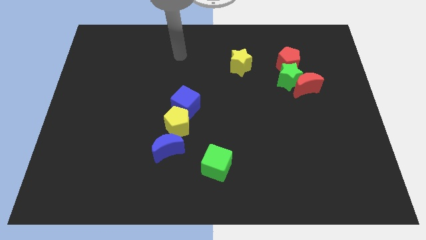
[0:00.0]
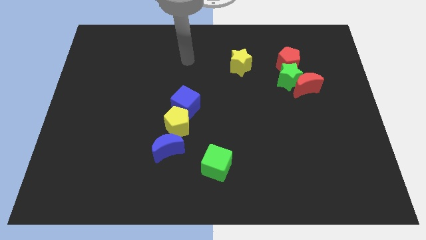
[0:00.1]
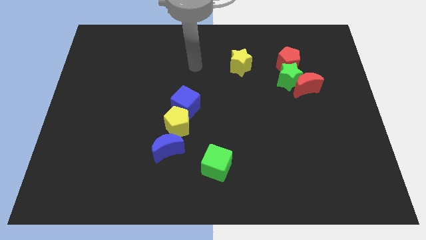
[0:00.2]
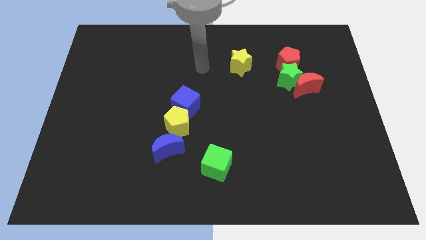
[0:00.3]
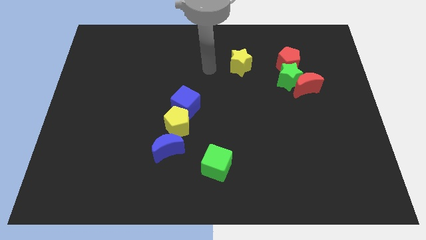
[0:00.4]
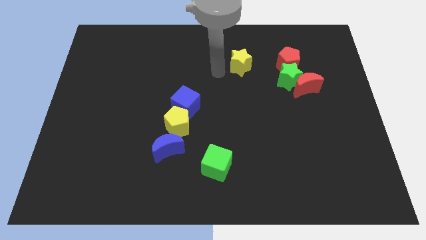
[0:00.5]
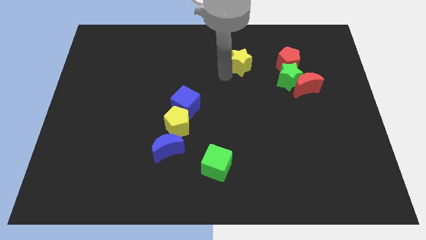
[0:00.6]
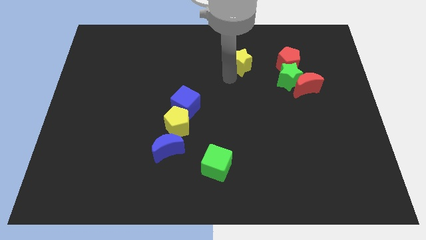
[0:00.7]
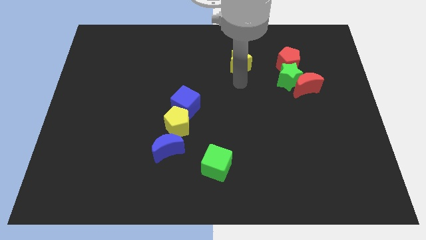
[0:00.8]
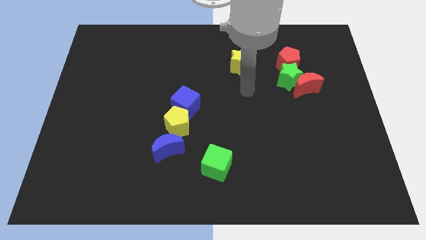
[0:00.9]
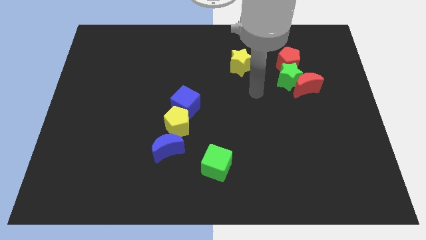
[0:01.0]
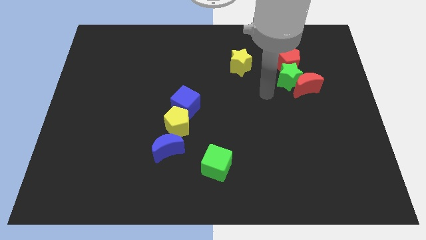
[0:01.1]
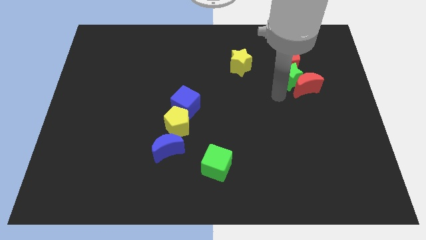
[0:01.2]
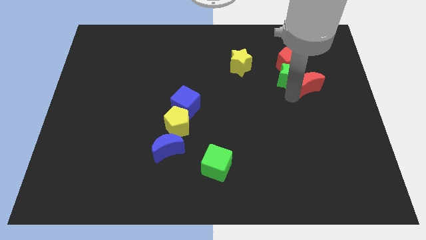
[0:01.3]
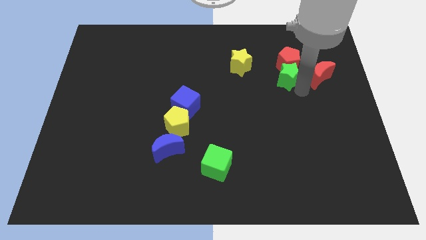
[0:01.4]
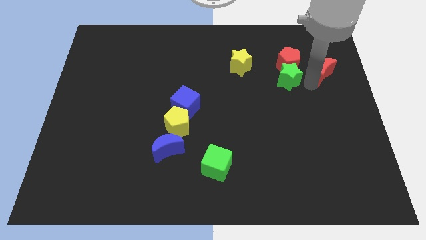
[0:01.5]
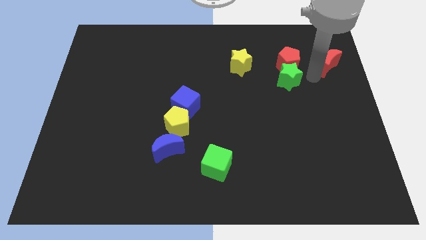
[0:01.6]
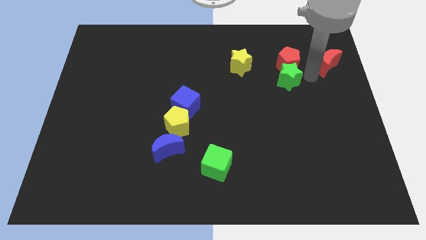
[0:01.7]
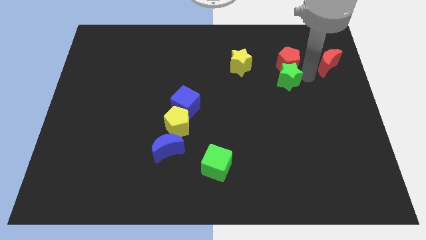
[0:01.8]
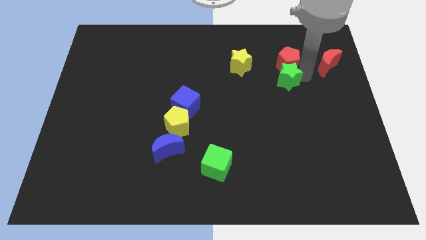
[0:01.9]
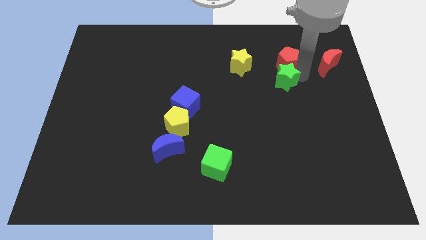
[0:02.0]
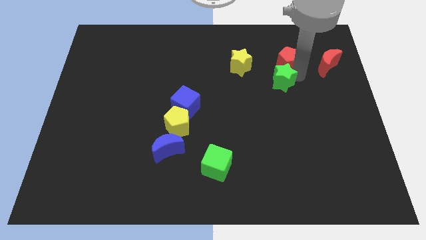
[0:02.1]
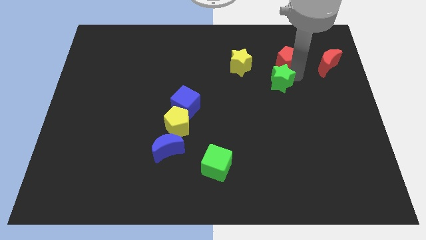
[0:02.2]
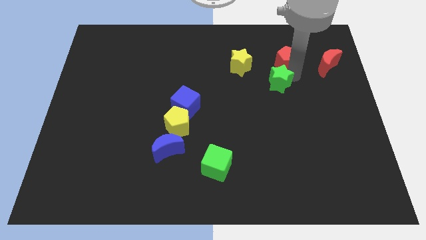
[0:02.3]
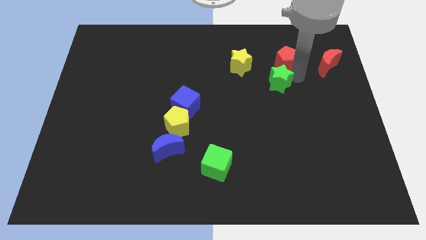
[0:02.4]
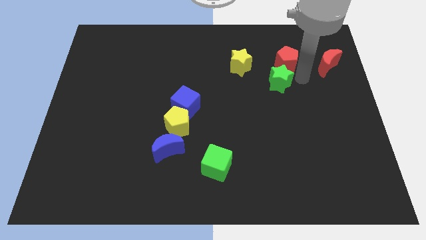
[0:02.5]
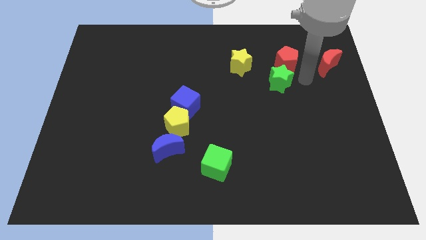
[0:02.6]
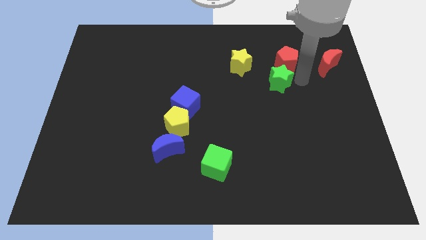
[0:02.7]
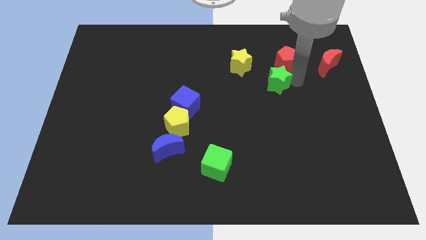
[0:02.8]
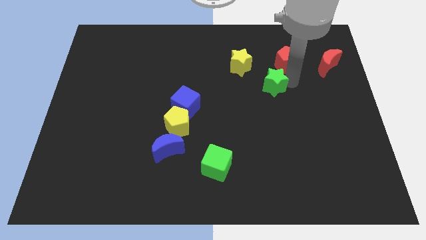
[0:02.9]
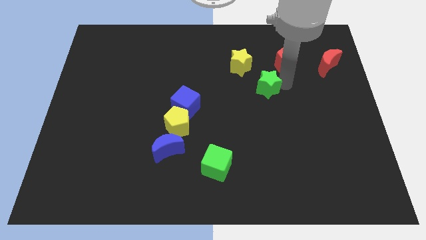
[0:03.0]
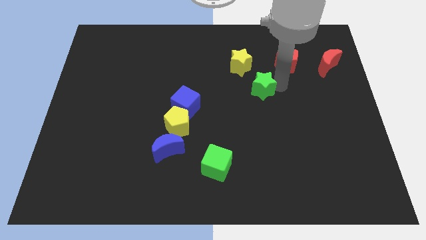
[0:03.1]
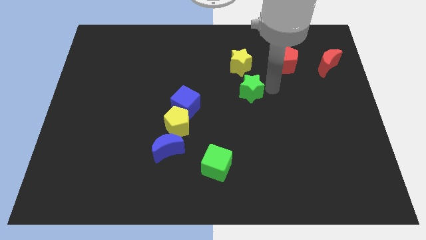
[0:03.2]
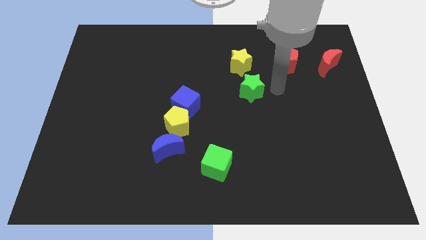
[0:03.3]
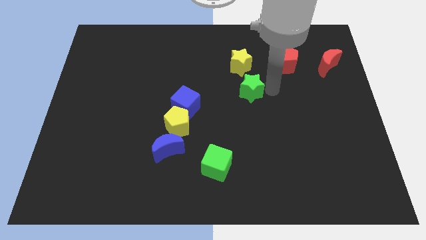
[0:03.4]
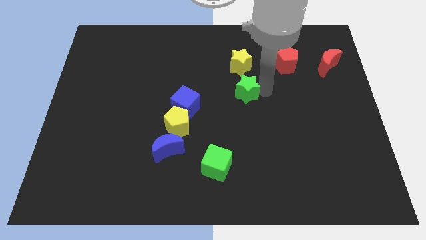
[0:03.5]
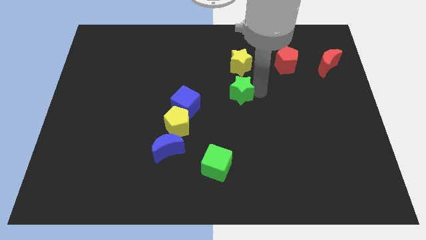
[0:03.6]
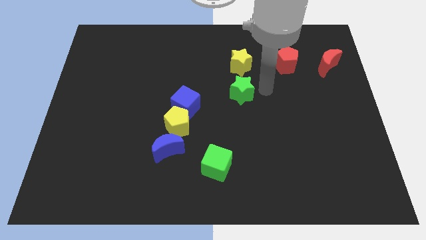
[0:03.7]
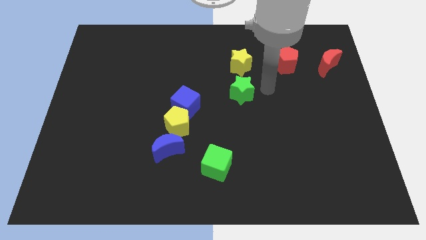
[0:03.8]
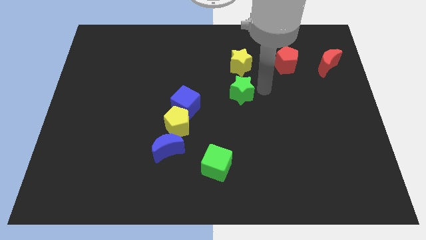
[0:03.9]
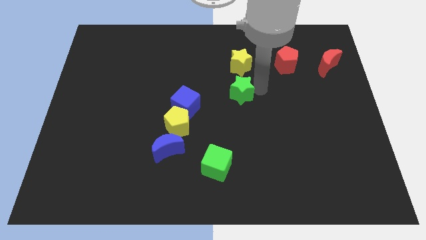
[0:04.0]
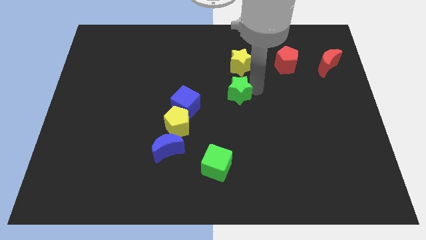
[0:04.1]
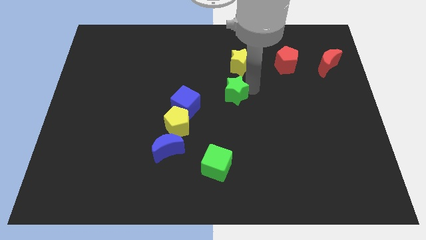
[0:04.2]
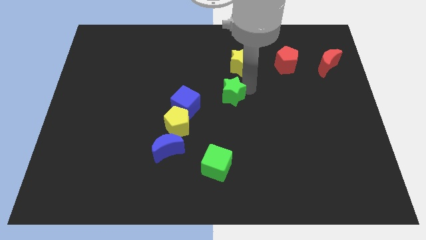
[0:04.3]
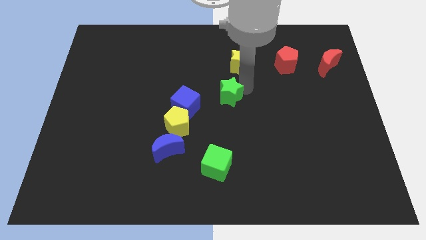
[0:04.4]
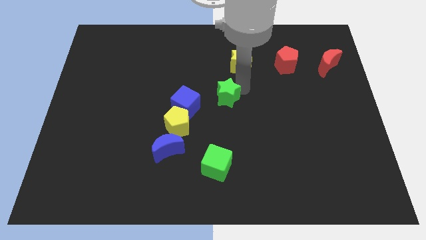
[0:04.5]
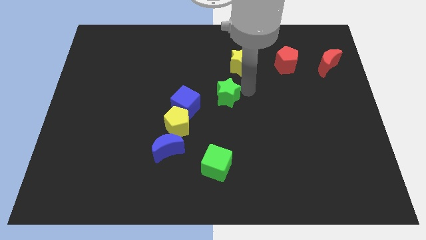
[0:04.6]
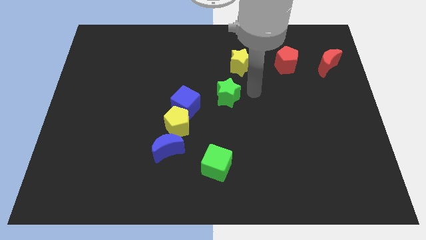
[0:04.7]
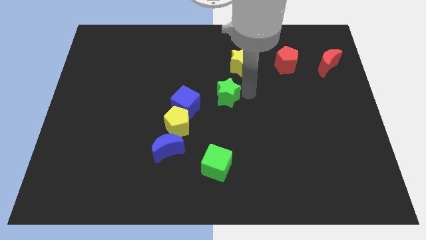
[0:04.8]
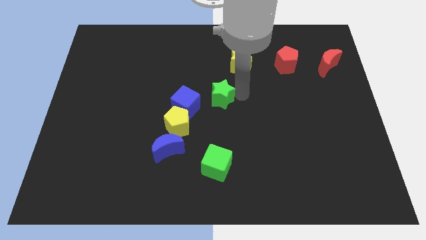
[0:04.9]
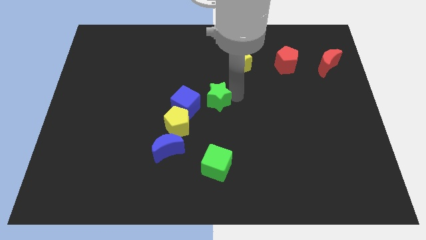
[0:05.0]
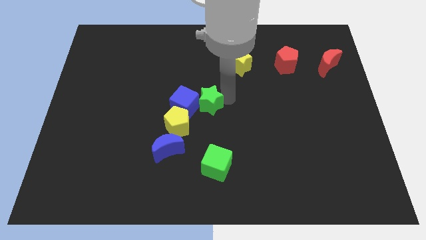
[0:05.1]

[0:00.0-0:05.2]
slide the green star towards the blue cube

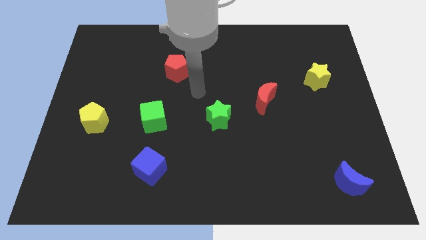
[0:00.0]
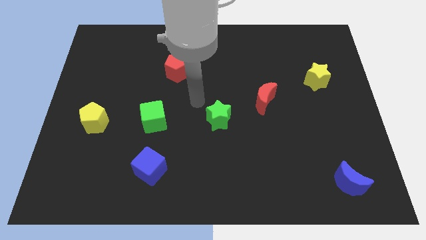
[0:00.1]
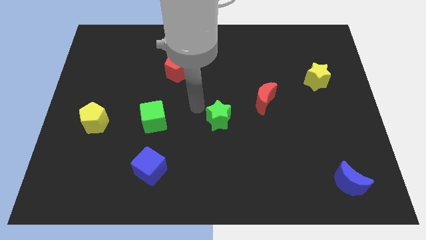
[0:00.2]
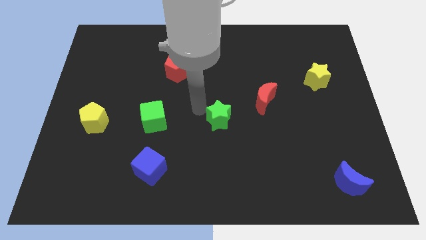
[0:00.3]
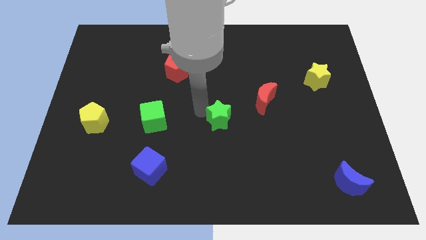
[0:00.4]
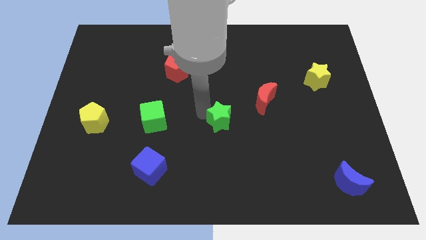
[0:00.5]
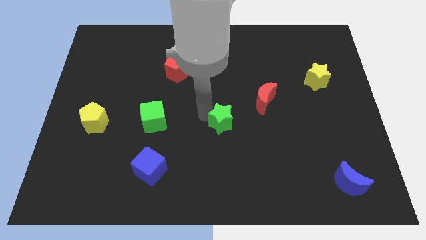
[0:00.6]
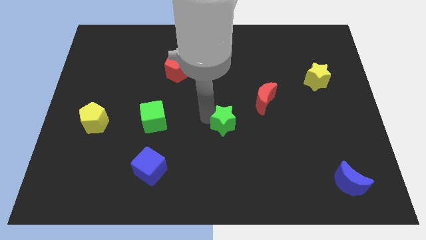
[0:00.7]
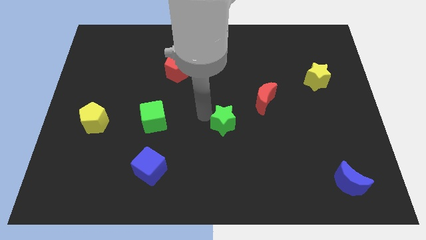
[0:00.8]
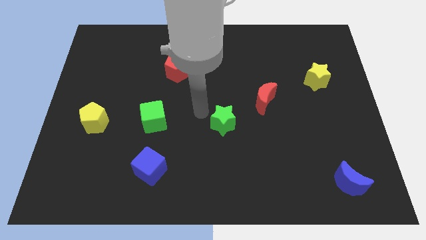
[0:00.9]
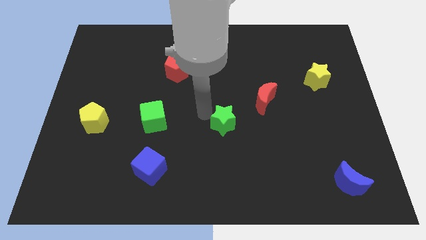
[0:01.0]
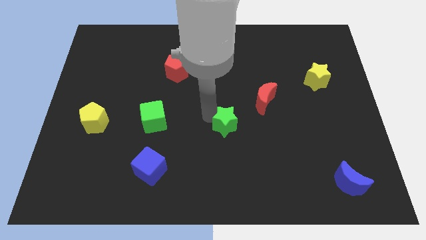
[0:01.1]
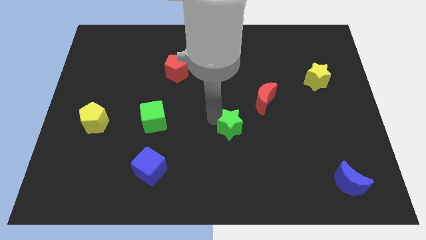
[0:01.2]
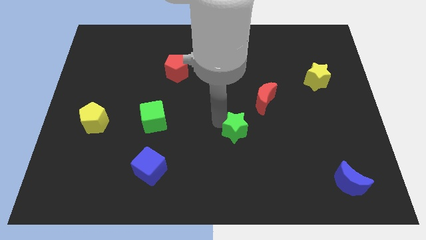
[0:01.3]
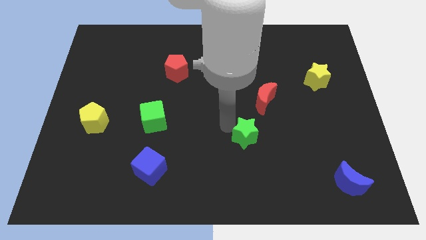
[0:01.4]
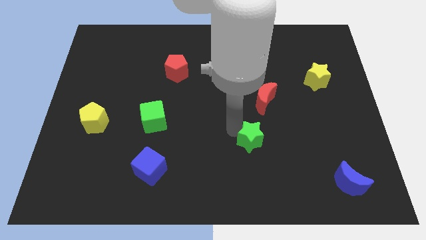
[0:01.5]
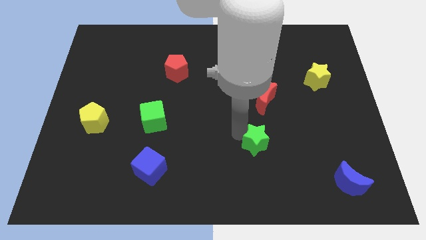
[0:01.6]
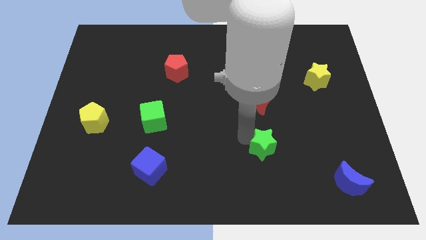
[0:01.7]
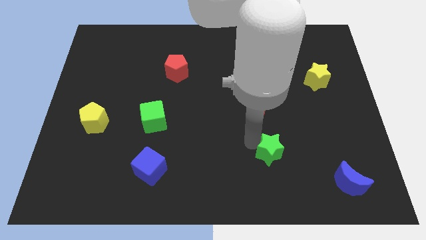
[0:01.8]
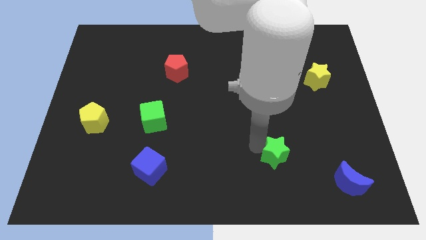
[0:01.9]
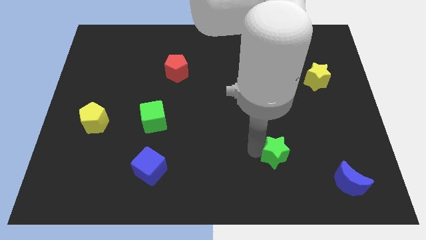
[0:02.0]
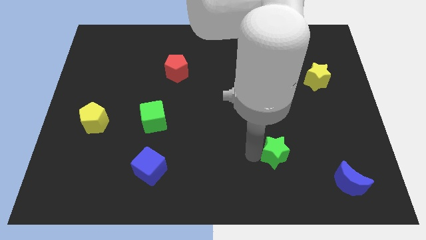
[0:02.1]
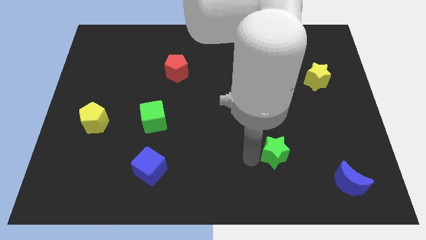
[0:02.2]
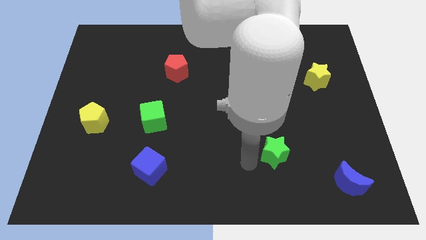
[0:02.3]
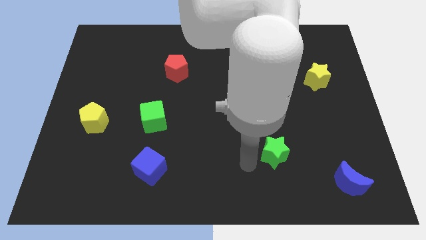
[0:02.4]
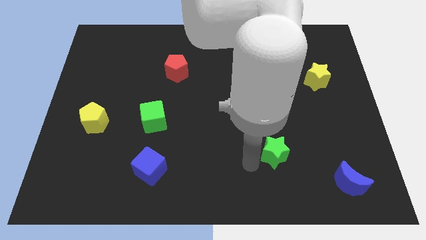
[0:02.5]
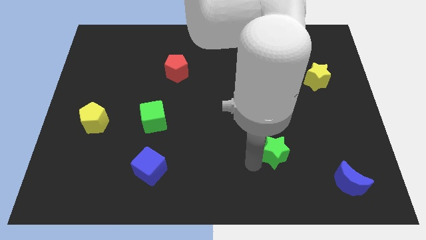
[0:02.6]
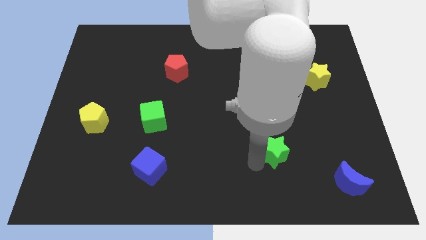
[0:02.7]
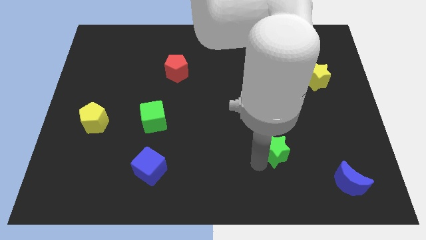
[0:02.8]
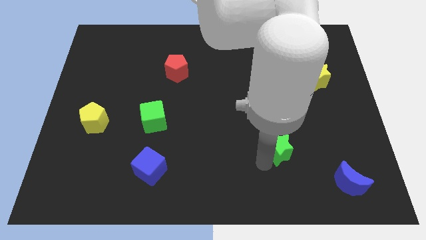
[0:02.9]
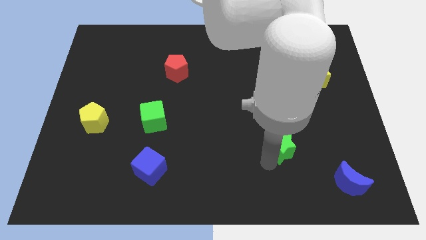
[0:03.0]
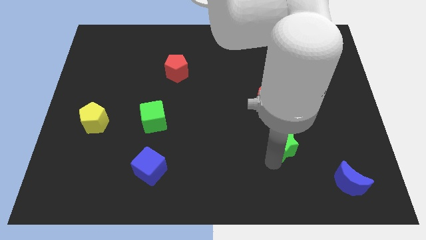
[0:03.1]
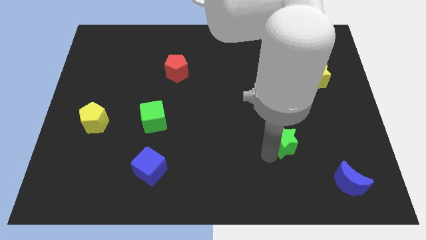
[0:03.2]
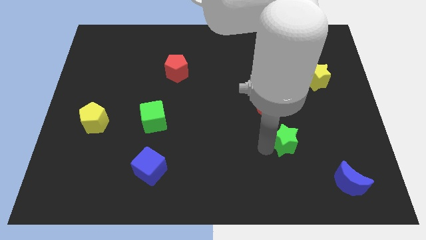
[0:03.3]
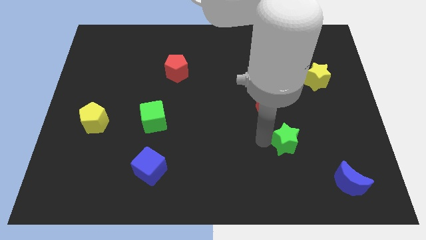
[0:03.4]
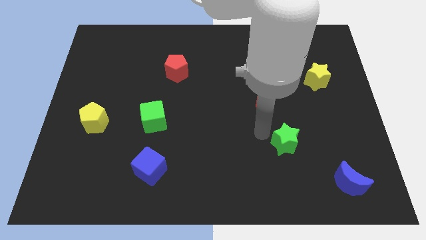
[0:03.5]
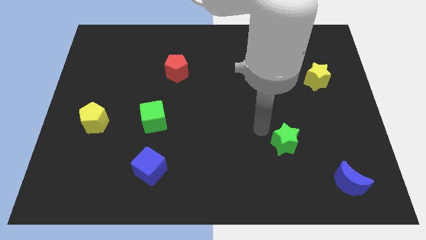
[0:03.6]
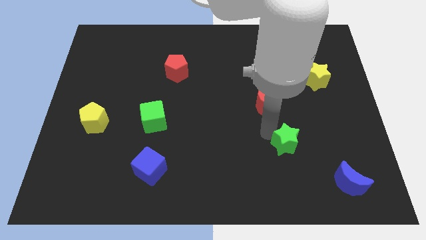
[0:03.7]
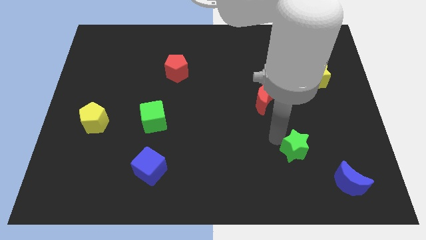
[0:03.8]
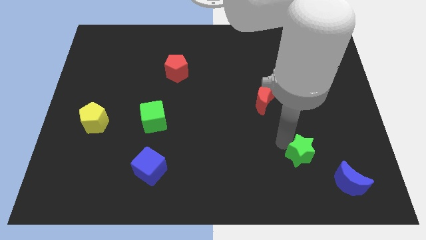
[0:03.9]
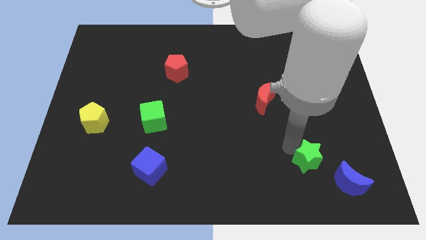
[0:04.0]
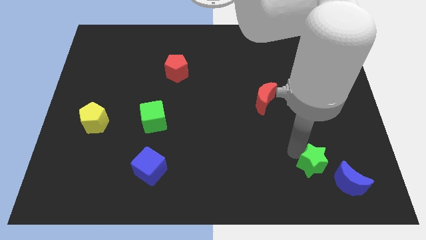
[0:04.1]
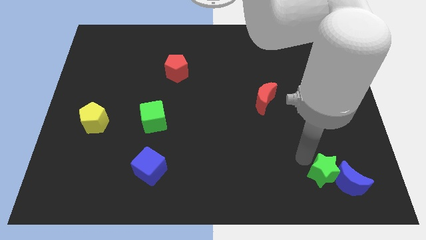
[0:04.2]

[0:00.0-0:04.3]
move the green star next to the blue moon
